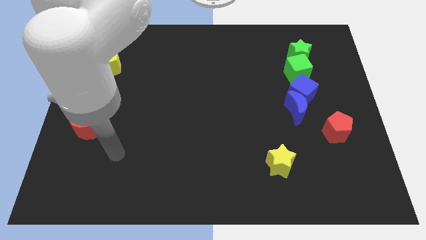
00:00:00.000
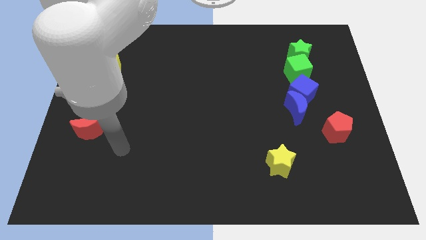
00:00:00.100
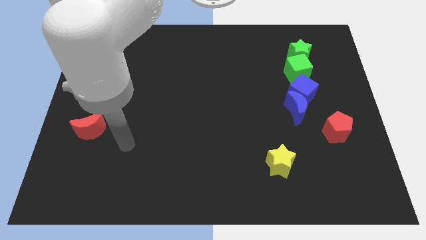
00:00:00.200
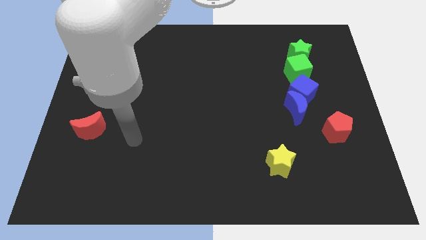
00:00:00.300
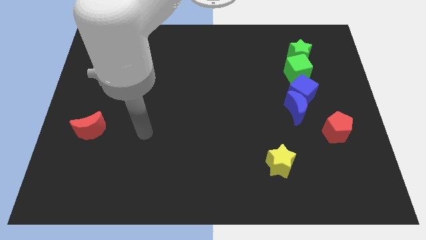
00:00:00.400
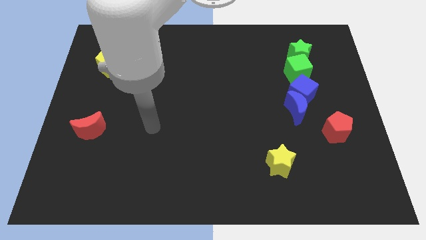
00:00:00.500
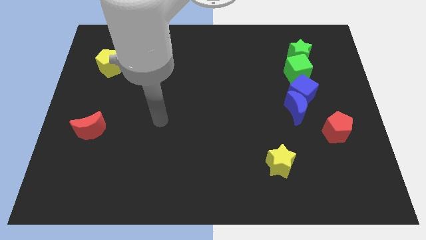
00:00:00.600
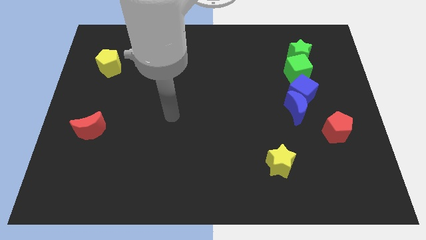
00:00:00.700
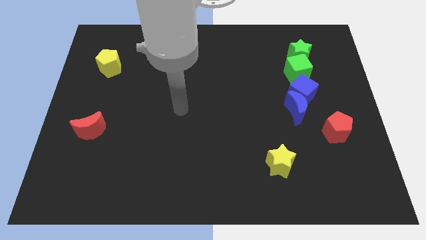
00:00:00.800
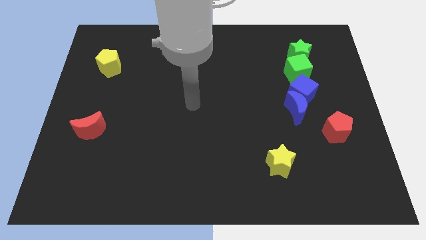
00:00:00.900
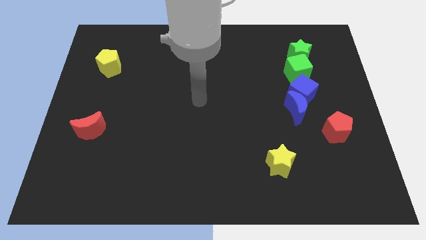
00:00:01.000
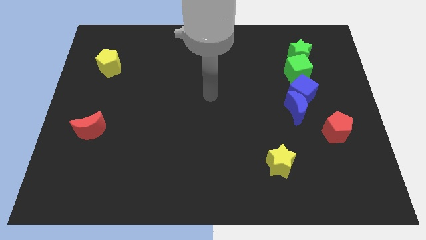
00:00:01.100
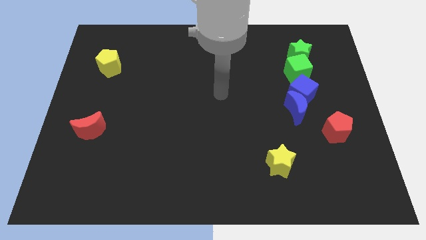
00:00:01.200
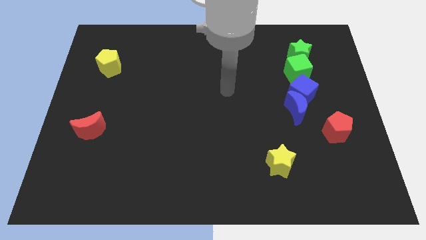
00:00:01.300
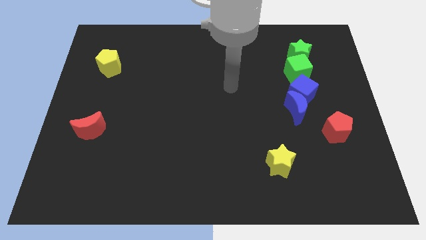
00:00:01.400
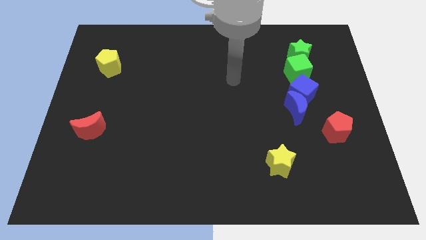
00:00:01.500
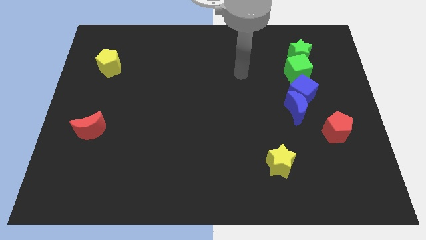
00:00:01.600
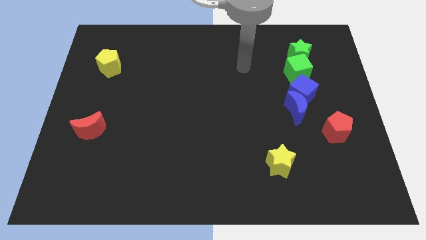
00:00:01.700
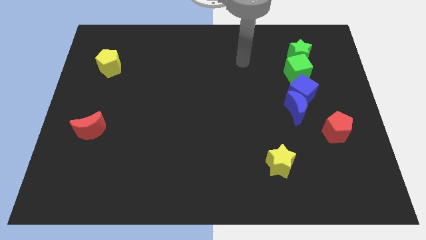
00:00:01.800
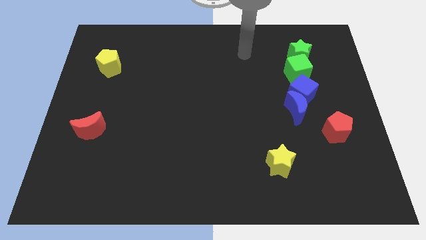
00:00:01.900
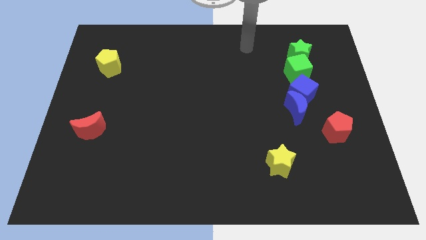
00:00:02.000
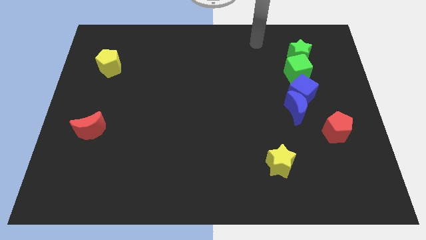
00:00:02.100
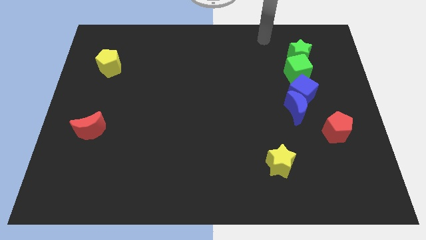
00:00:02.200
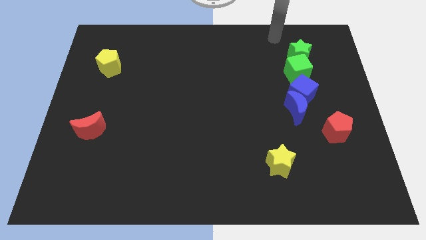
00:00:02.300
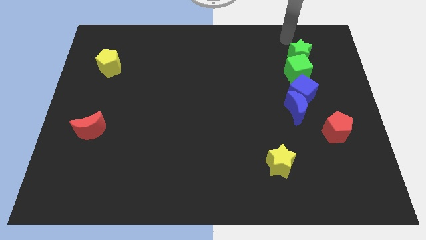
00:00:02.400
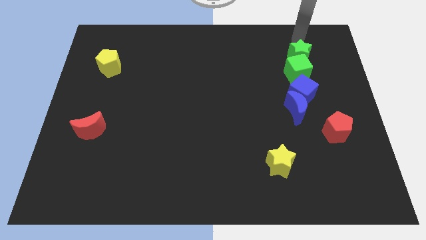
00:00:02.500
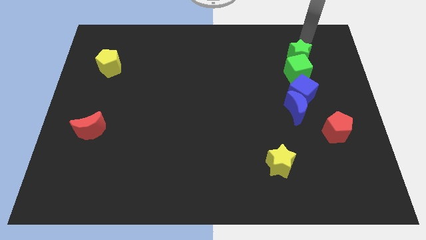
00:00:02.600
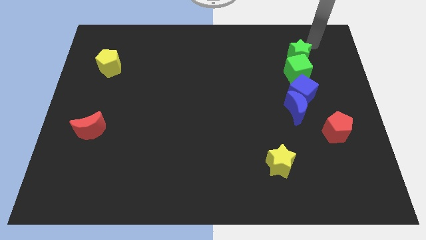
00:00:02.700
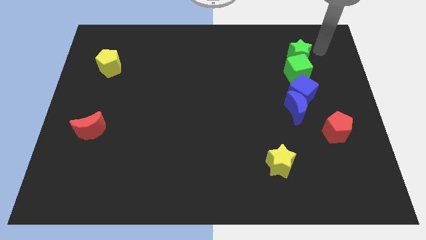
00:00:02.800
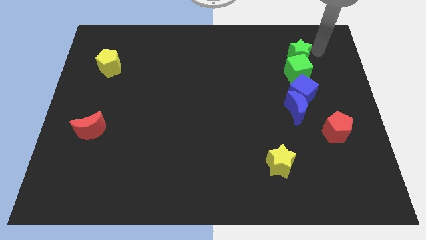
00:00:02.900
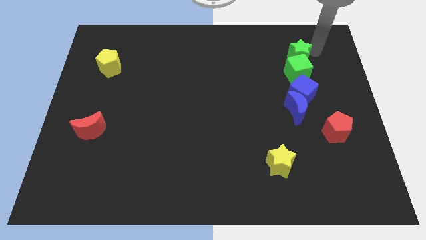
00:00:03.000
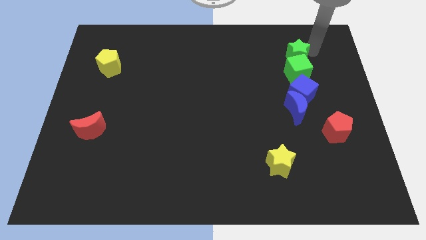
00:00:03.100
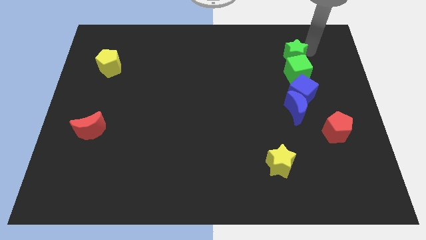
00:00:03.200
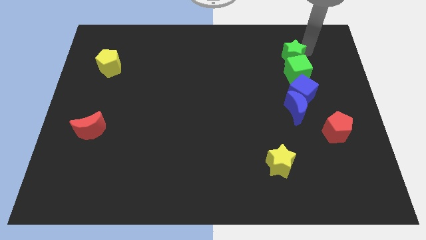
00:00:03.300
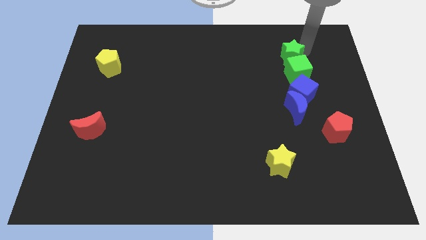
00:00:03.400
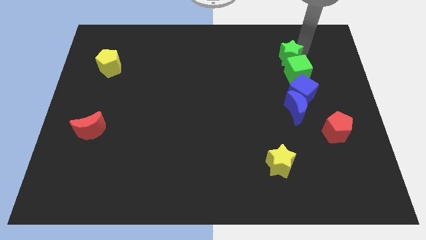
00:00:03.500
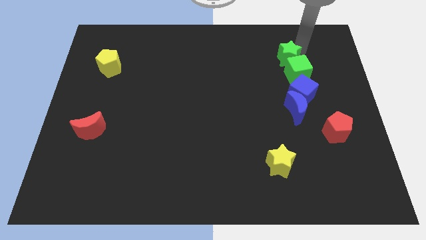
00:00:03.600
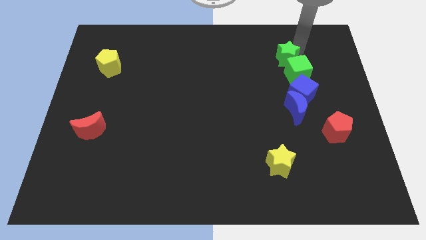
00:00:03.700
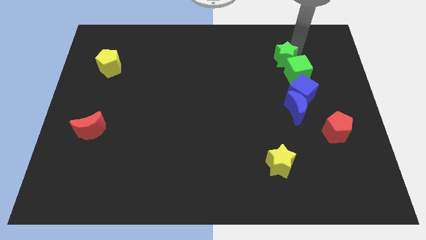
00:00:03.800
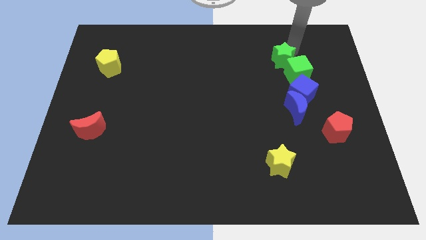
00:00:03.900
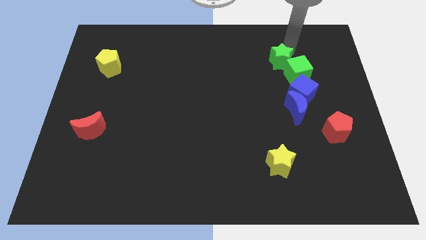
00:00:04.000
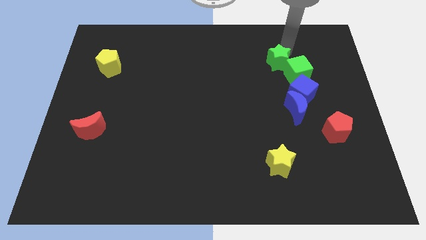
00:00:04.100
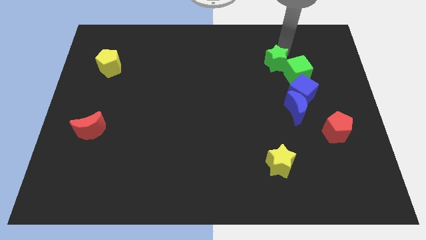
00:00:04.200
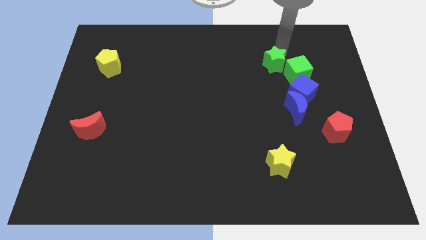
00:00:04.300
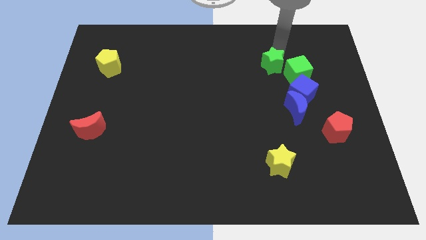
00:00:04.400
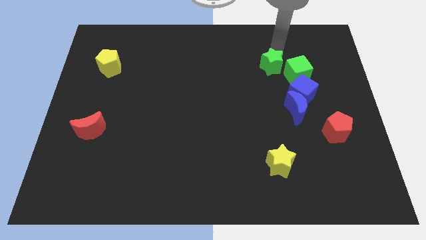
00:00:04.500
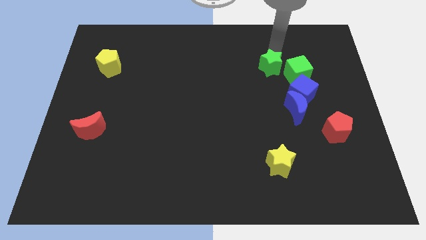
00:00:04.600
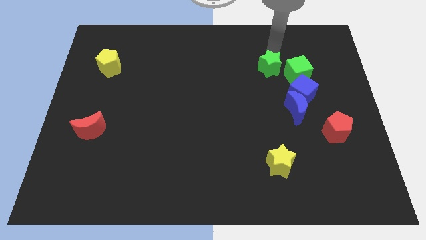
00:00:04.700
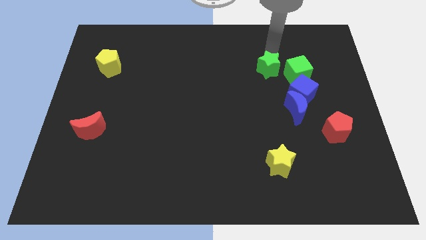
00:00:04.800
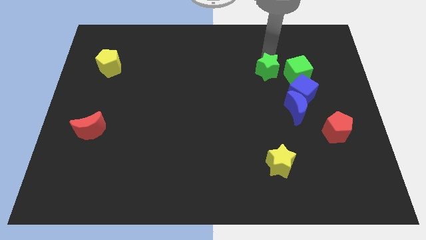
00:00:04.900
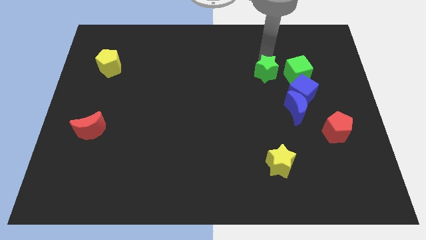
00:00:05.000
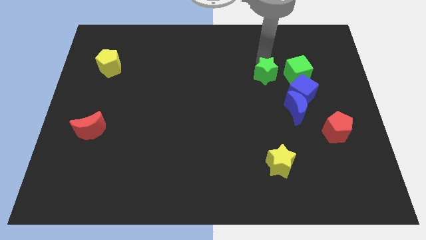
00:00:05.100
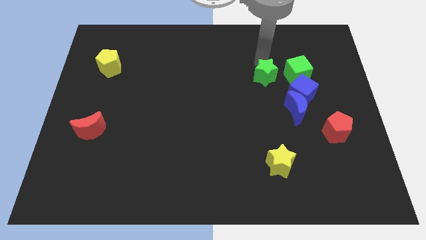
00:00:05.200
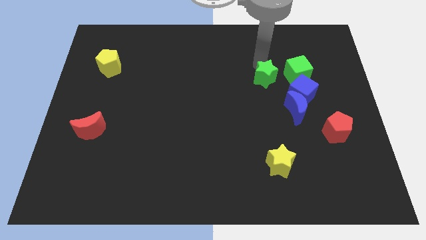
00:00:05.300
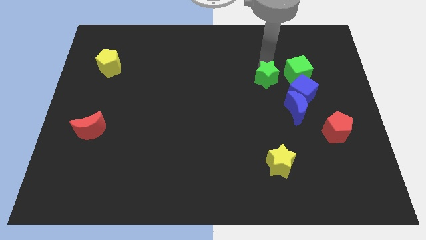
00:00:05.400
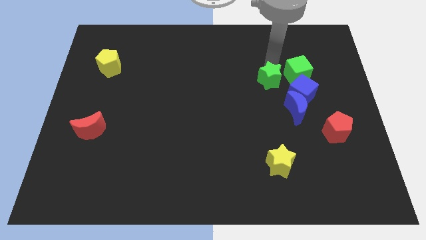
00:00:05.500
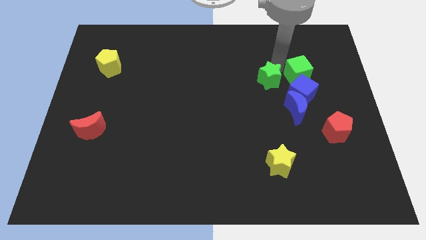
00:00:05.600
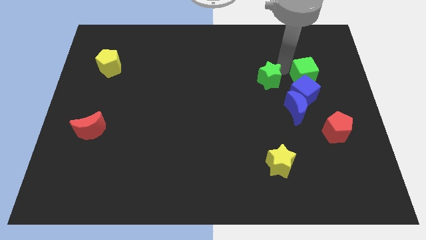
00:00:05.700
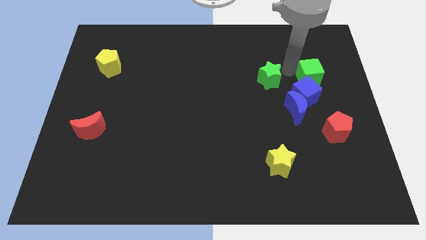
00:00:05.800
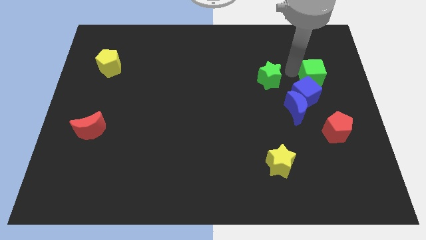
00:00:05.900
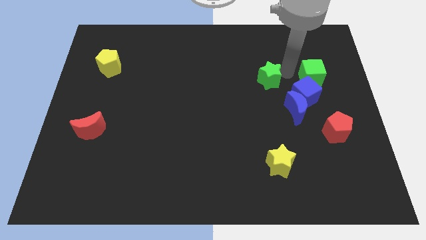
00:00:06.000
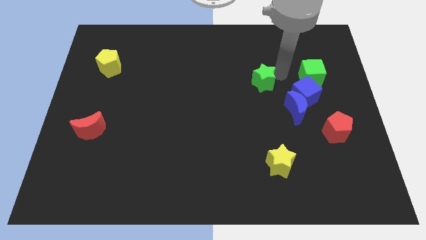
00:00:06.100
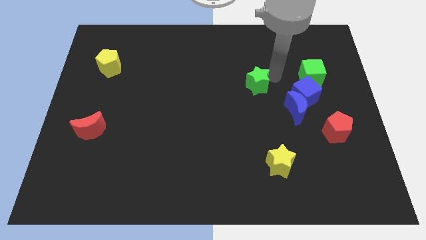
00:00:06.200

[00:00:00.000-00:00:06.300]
move the green star to the center of the board
